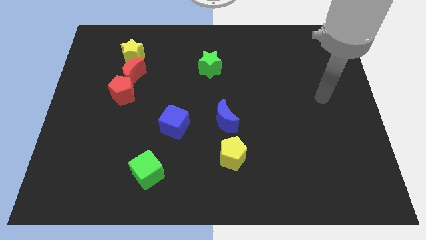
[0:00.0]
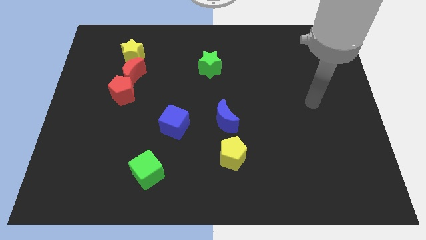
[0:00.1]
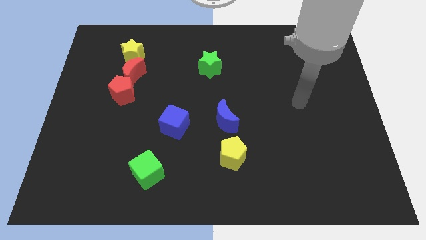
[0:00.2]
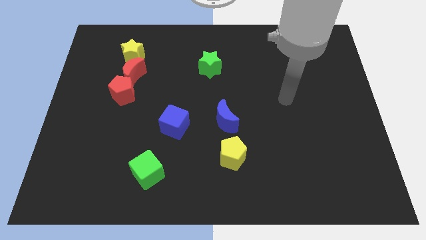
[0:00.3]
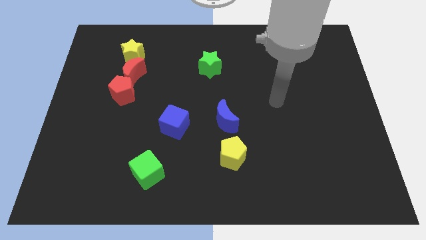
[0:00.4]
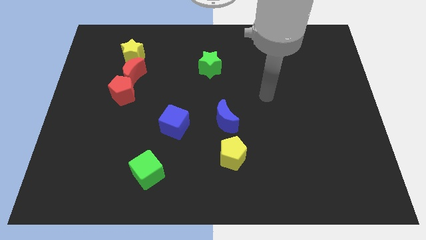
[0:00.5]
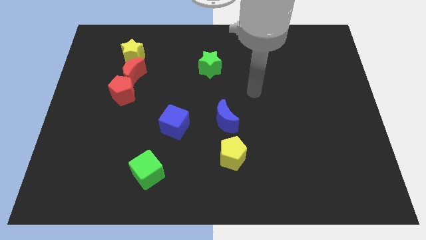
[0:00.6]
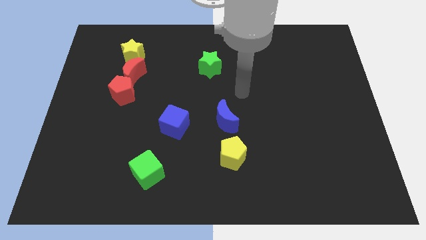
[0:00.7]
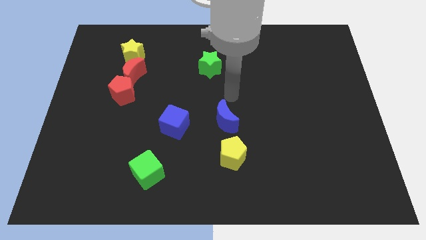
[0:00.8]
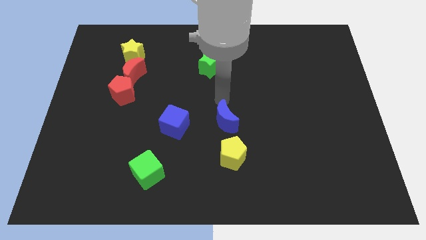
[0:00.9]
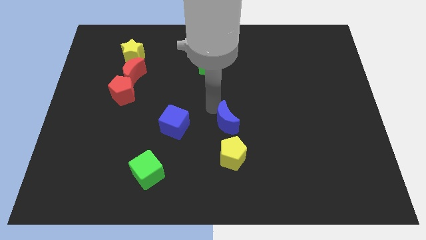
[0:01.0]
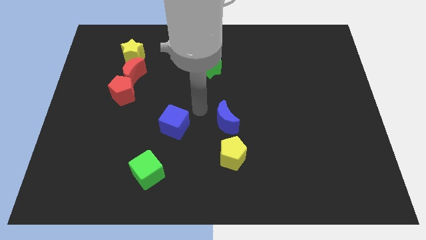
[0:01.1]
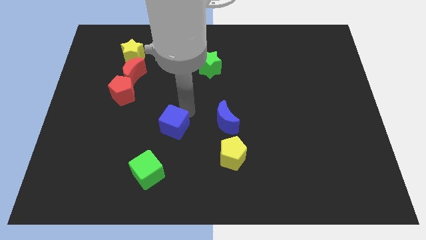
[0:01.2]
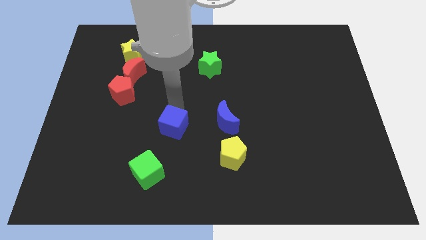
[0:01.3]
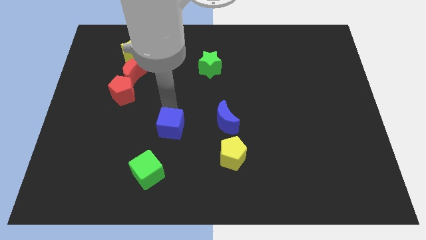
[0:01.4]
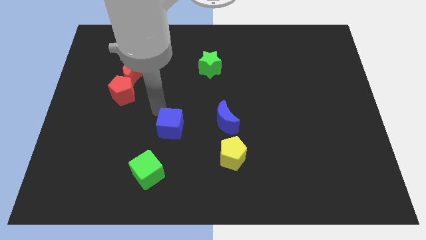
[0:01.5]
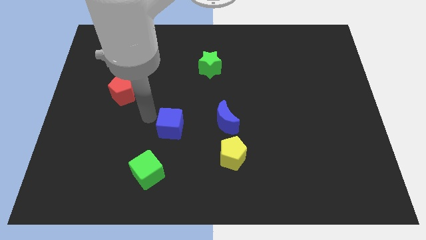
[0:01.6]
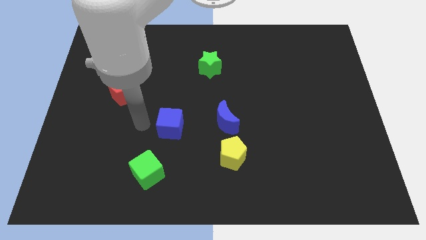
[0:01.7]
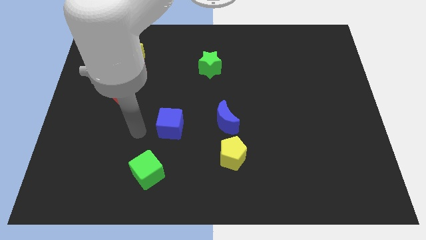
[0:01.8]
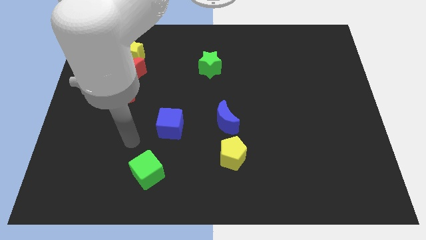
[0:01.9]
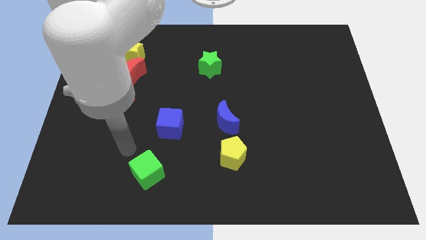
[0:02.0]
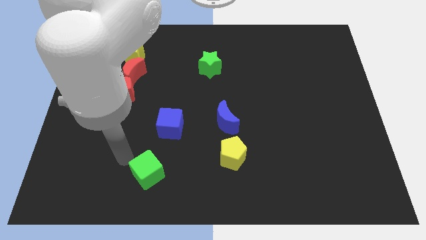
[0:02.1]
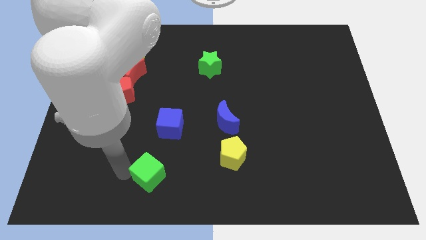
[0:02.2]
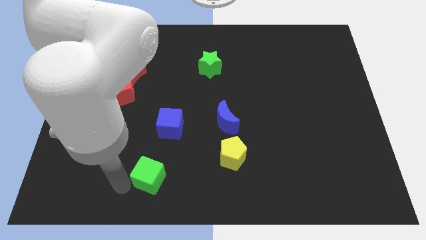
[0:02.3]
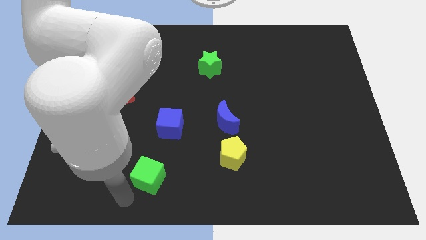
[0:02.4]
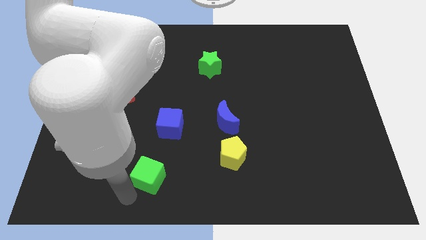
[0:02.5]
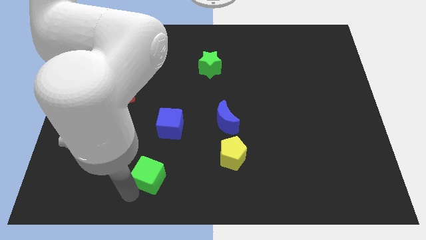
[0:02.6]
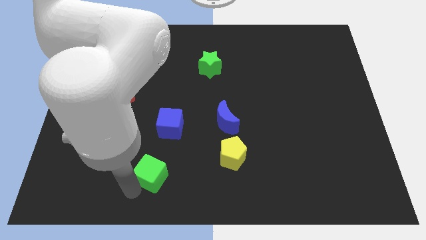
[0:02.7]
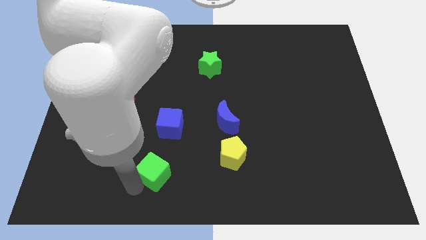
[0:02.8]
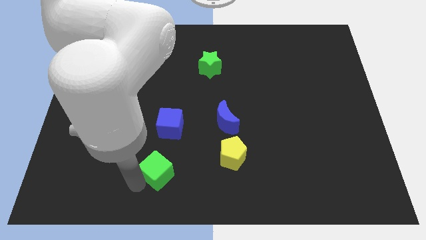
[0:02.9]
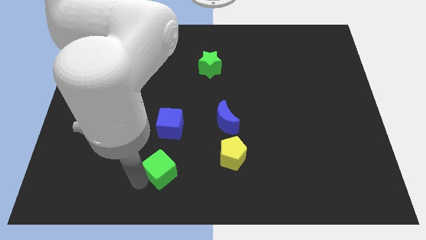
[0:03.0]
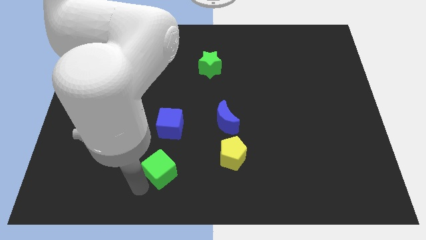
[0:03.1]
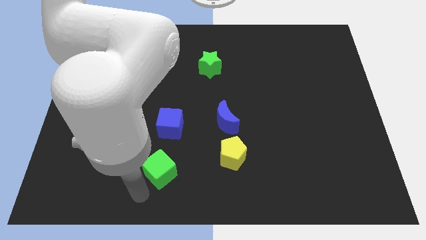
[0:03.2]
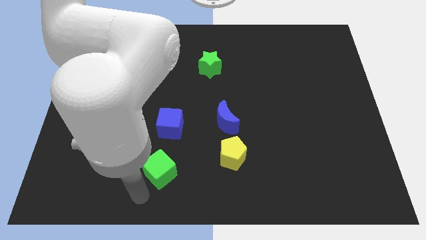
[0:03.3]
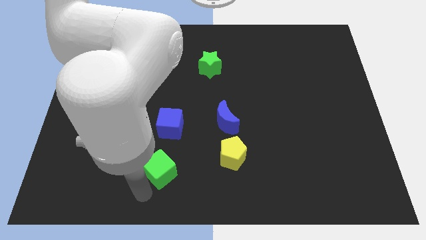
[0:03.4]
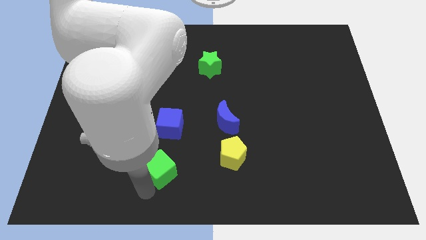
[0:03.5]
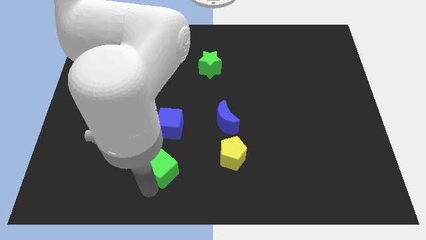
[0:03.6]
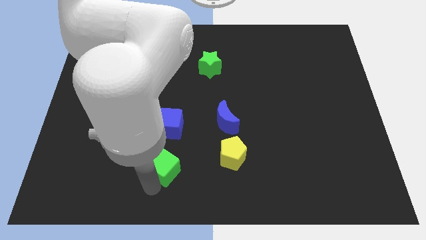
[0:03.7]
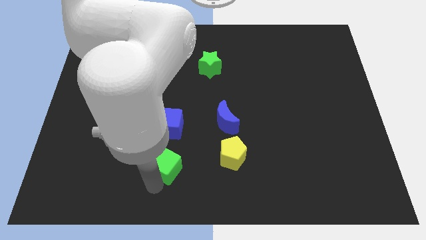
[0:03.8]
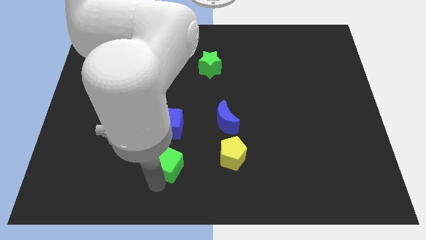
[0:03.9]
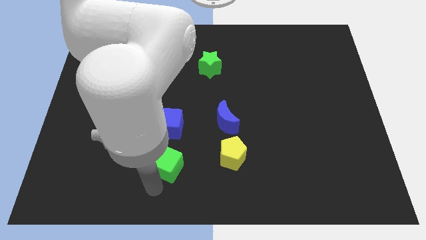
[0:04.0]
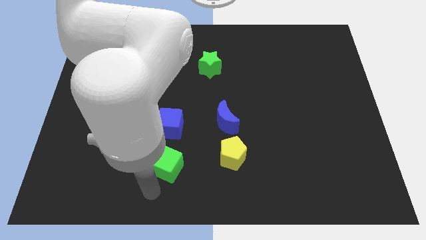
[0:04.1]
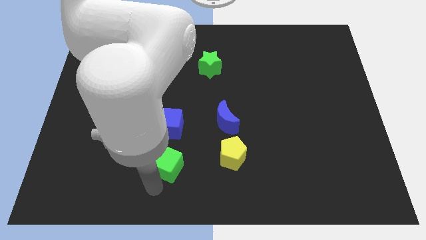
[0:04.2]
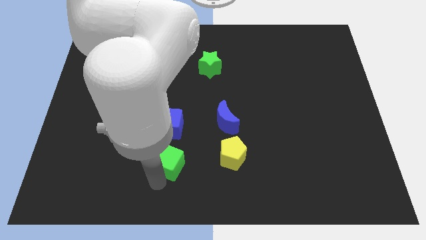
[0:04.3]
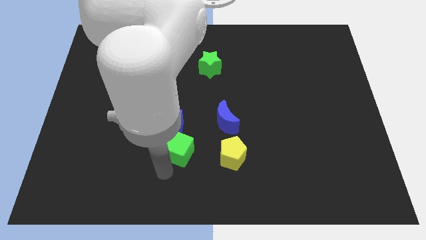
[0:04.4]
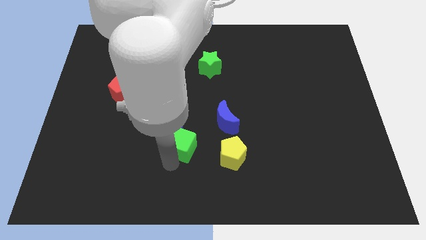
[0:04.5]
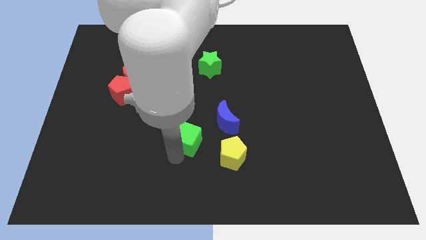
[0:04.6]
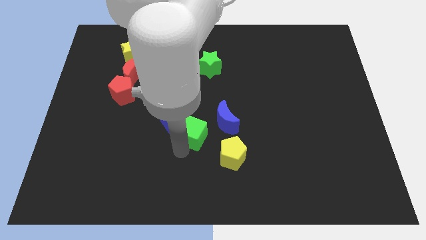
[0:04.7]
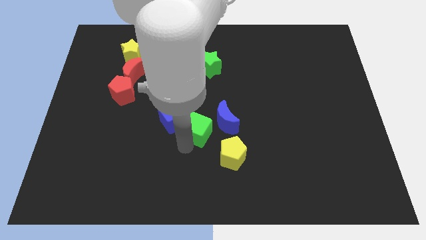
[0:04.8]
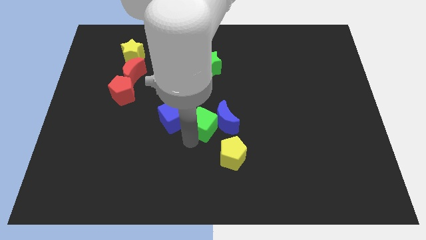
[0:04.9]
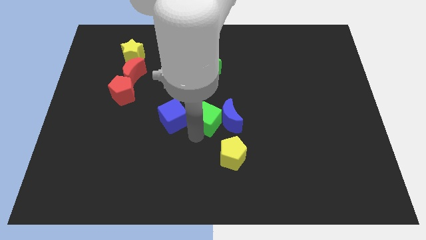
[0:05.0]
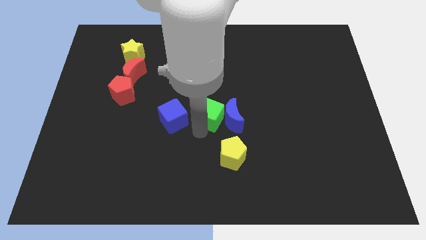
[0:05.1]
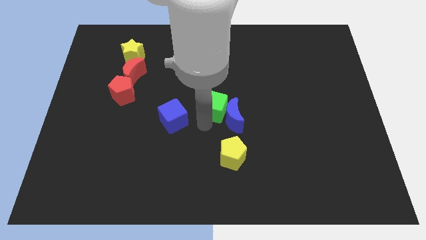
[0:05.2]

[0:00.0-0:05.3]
slide the green cube upwards and then right

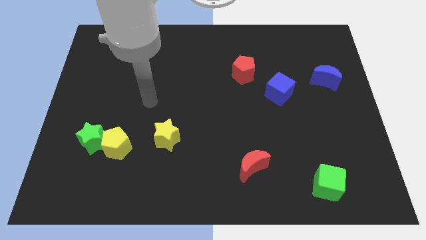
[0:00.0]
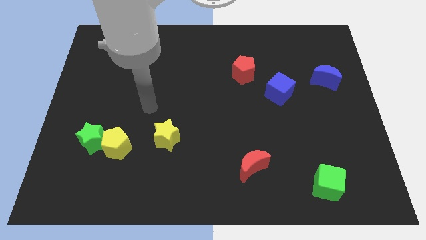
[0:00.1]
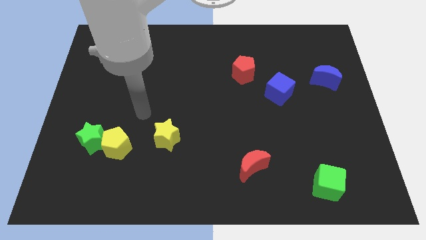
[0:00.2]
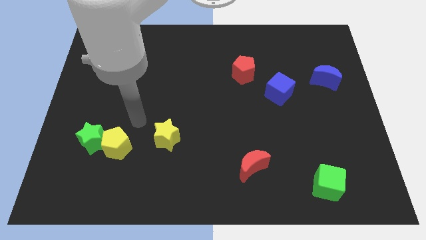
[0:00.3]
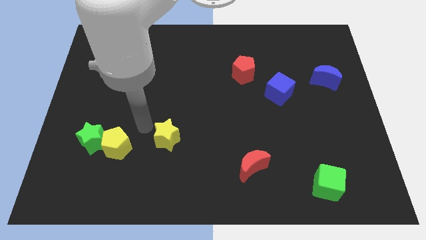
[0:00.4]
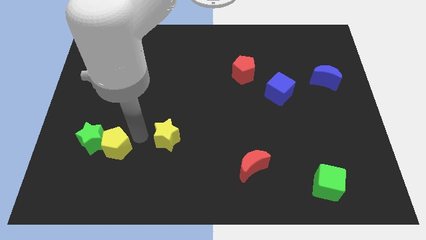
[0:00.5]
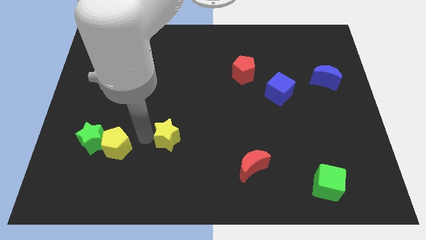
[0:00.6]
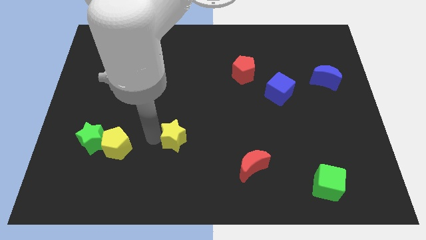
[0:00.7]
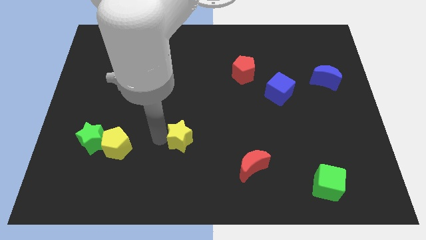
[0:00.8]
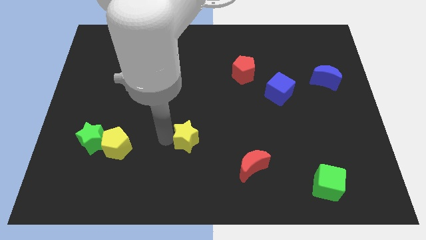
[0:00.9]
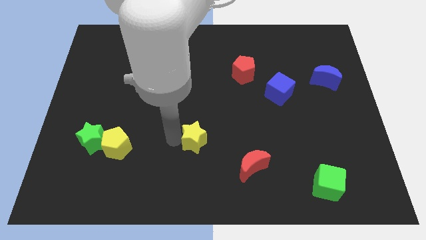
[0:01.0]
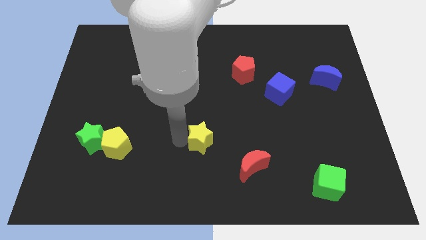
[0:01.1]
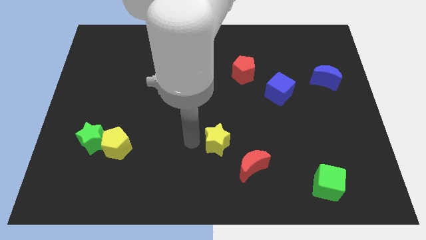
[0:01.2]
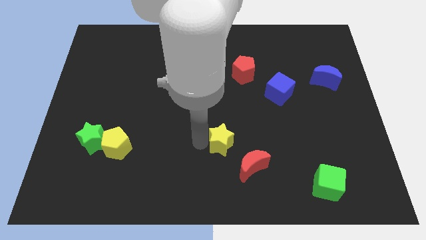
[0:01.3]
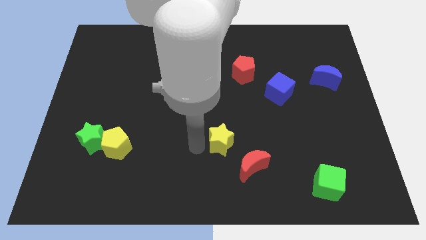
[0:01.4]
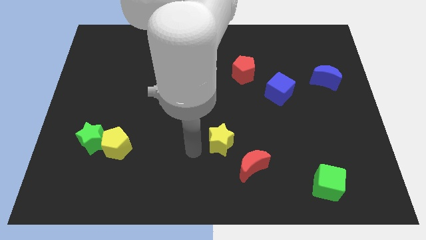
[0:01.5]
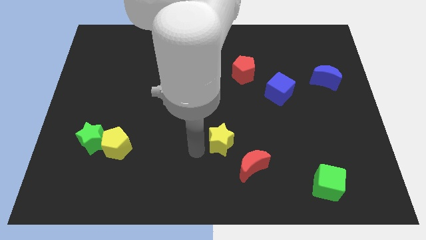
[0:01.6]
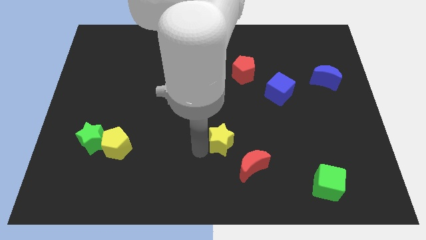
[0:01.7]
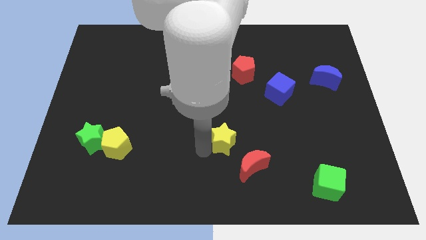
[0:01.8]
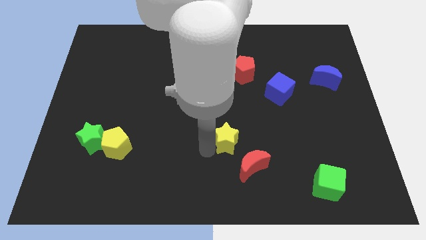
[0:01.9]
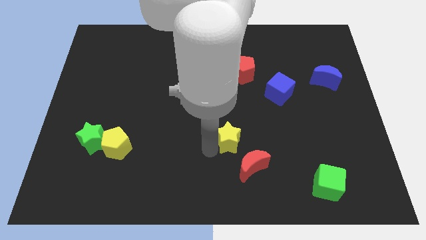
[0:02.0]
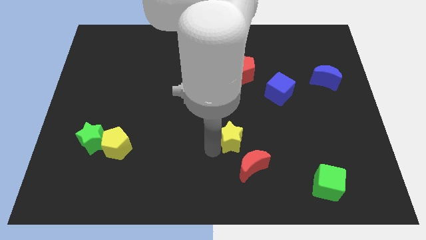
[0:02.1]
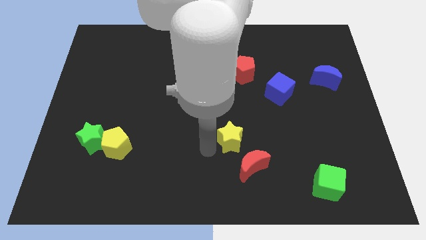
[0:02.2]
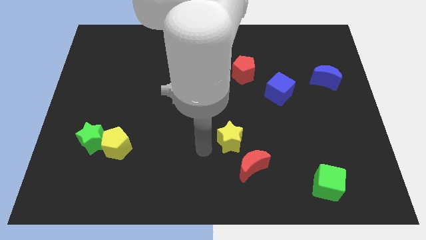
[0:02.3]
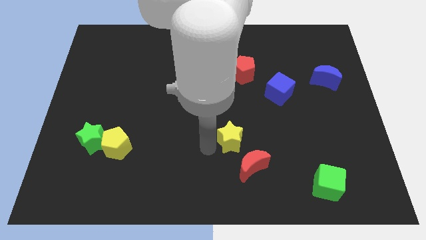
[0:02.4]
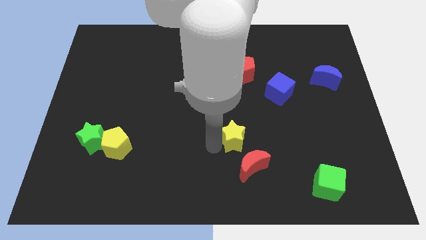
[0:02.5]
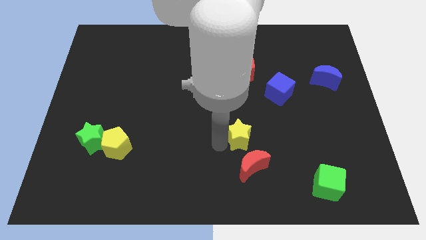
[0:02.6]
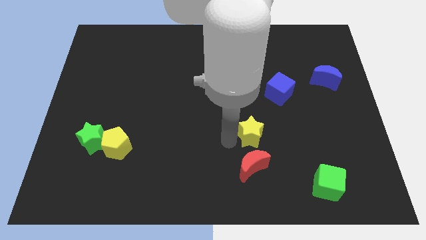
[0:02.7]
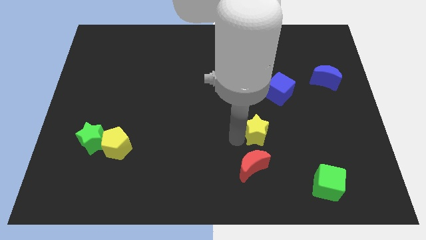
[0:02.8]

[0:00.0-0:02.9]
slide the yellow star to the right
